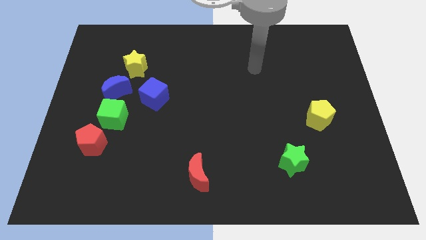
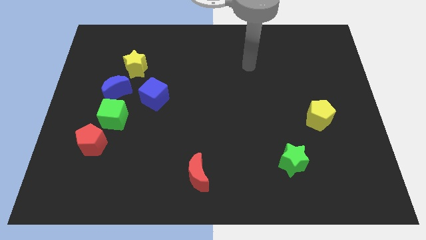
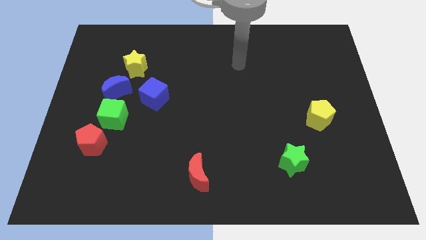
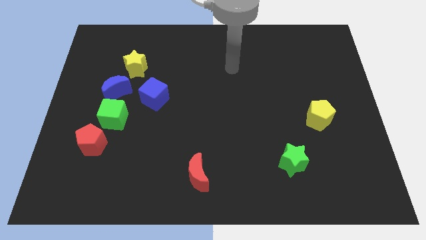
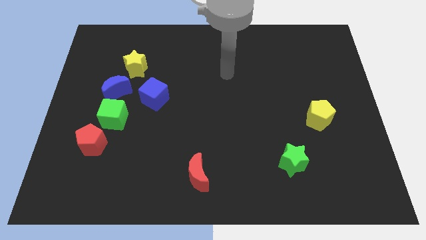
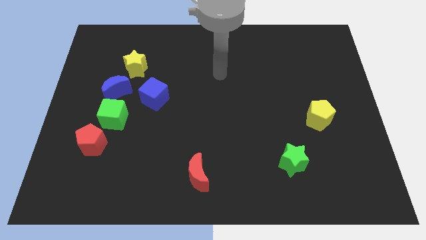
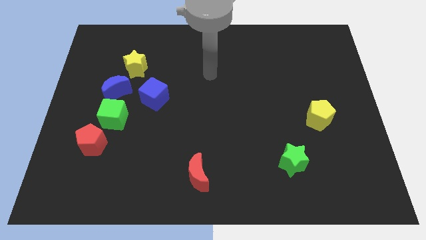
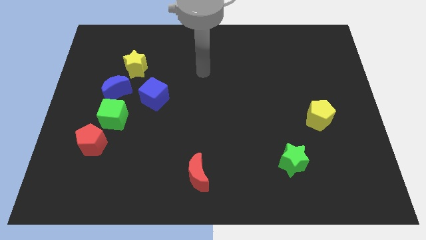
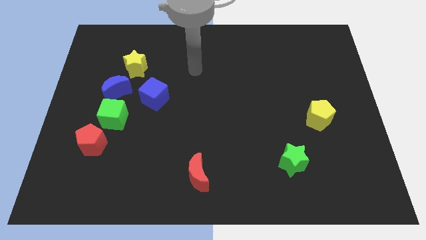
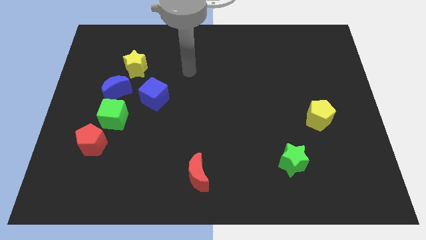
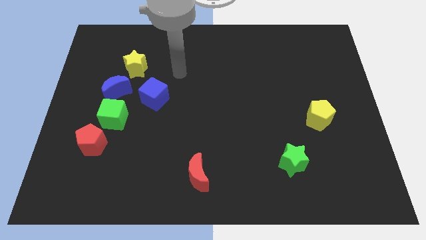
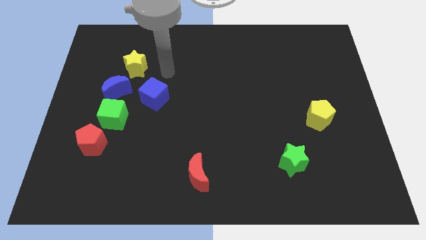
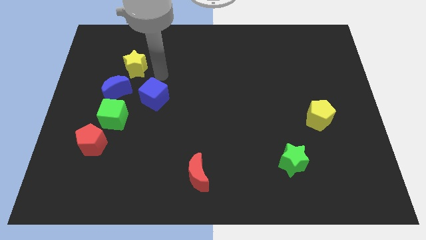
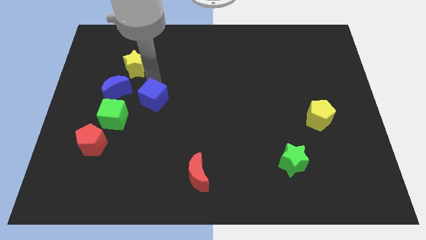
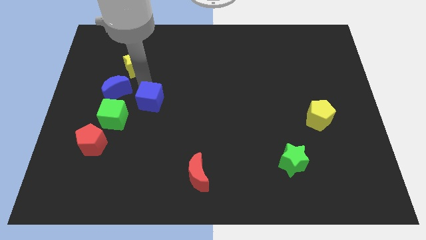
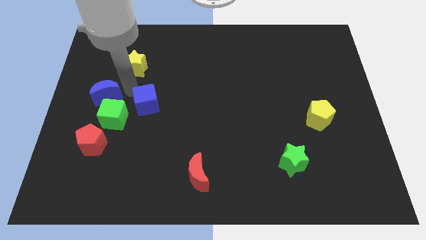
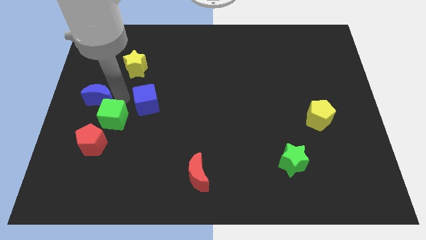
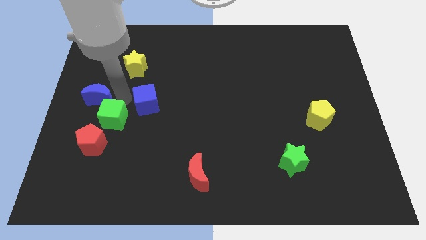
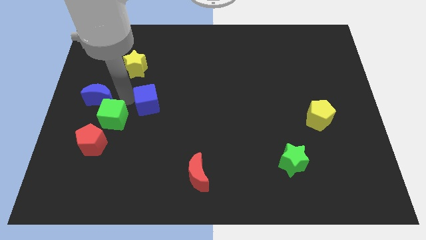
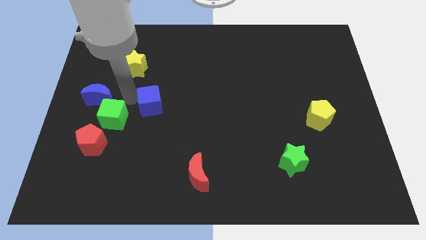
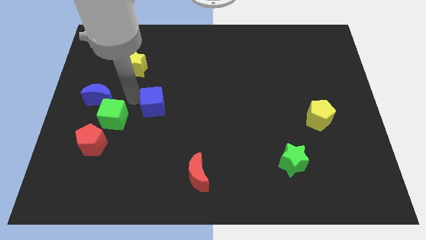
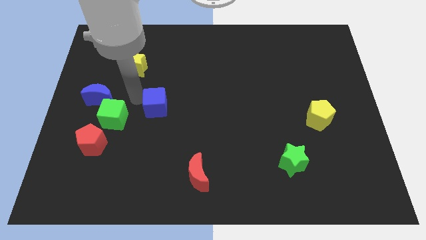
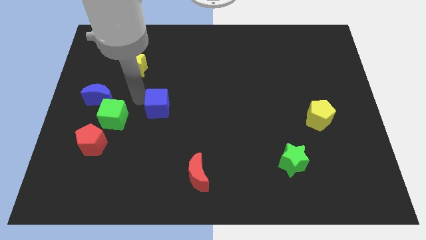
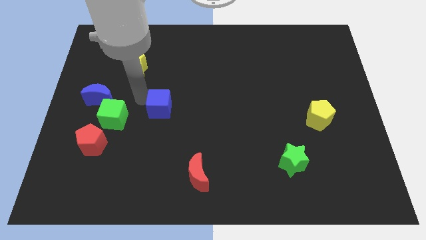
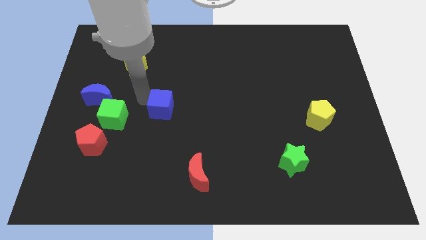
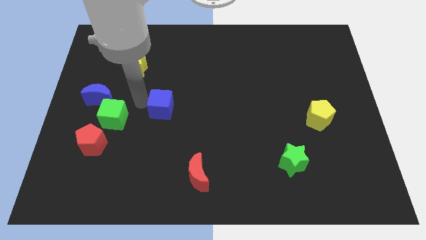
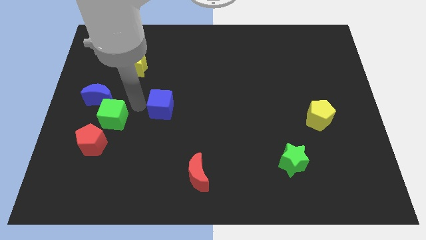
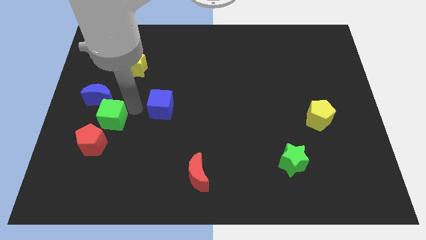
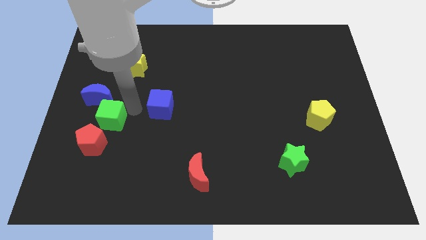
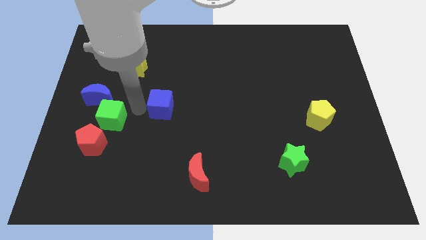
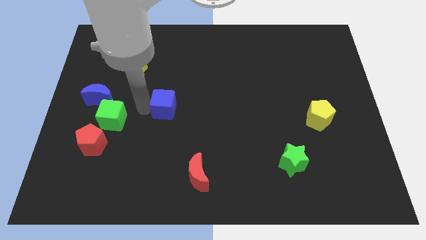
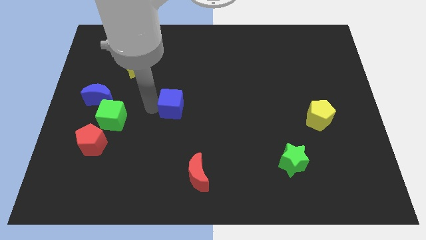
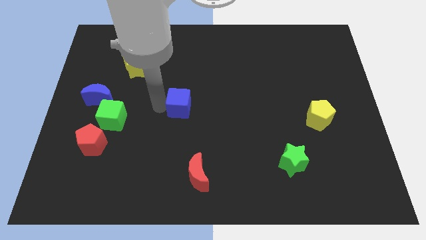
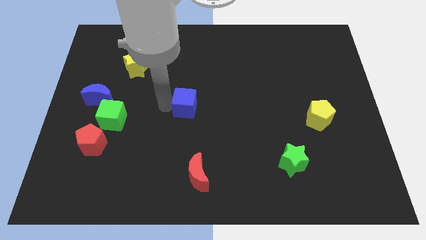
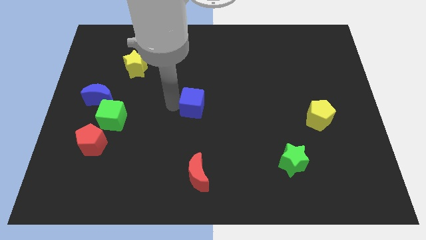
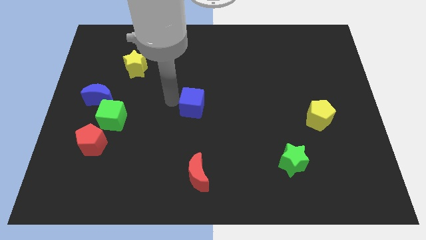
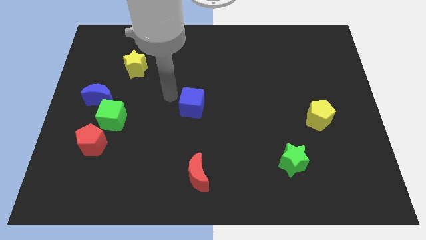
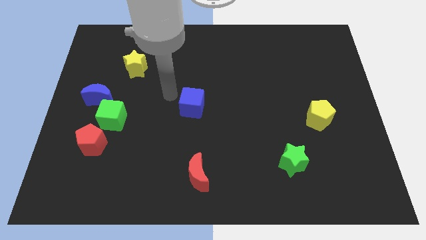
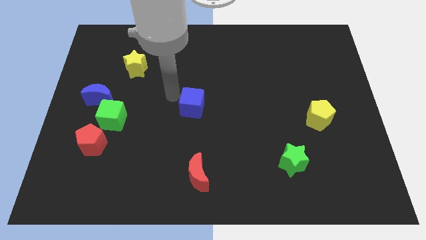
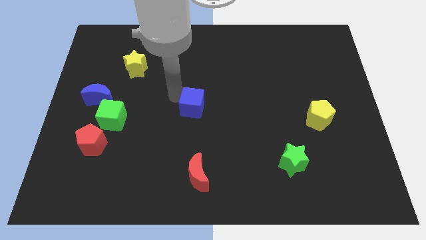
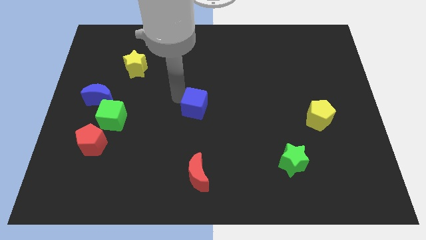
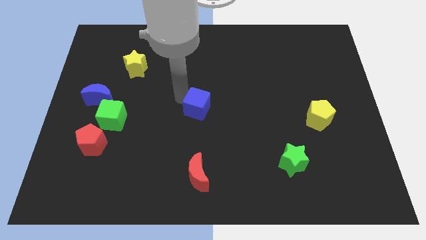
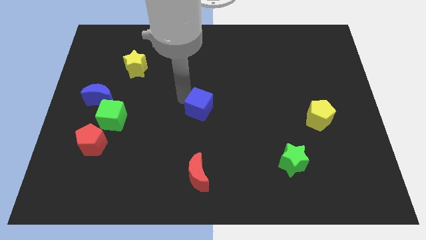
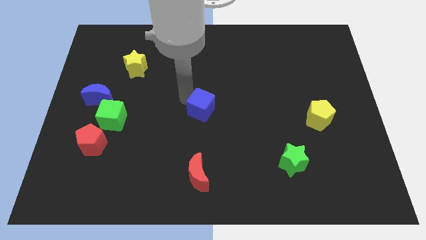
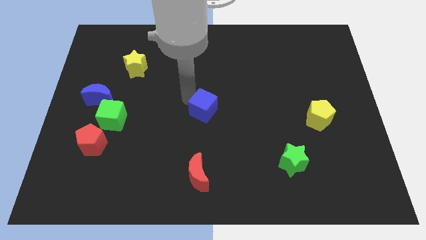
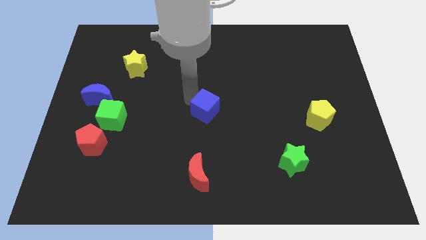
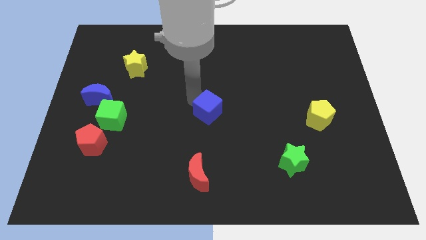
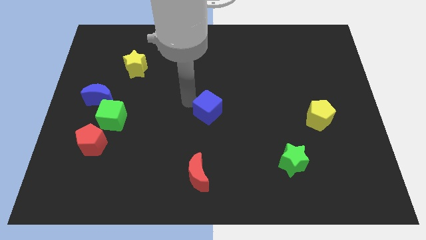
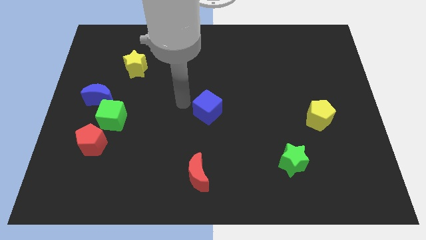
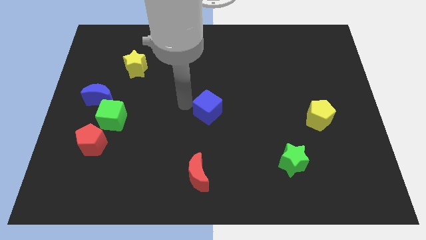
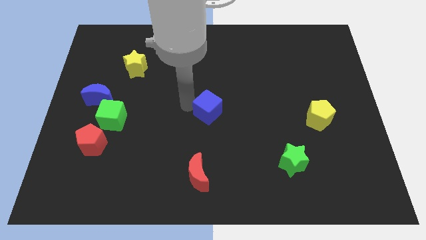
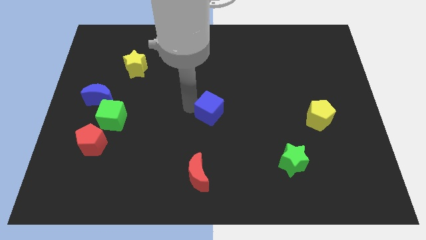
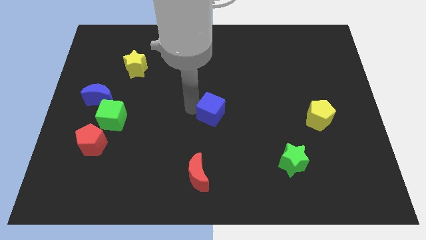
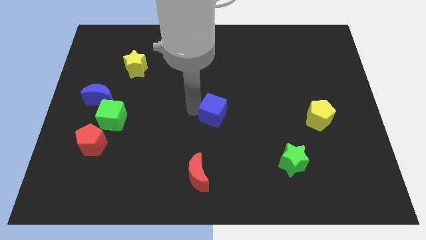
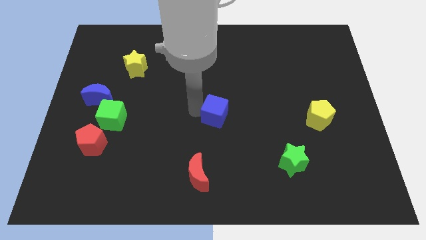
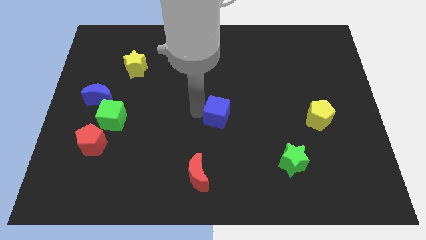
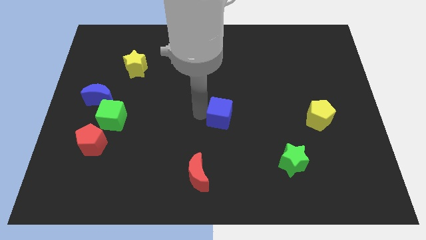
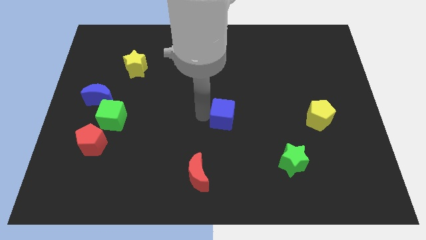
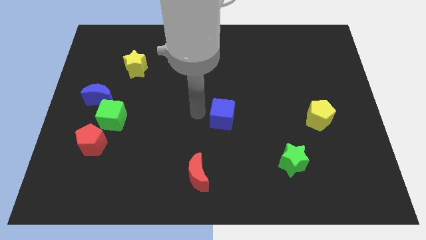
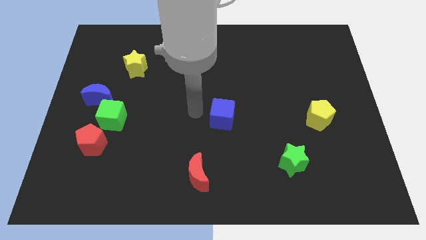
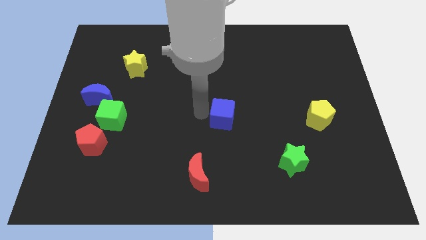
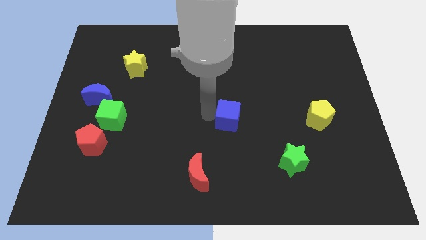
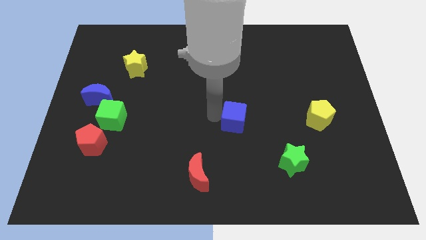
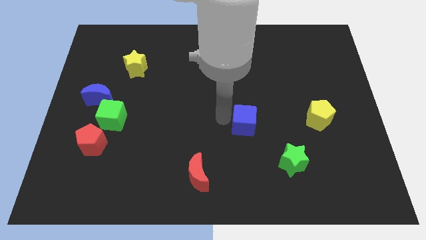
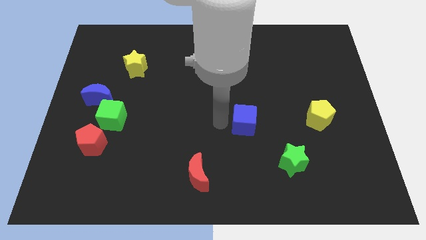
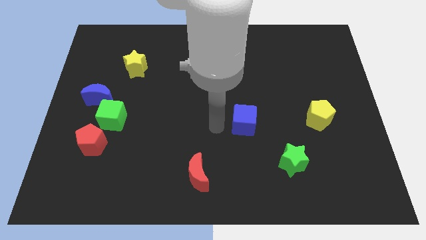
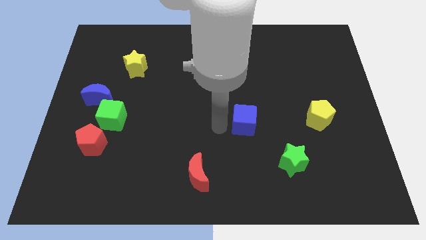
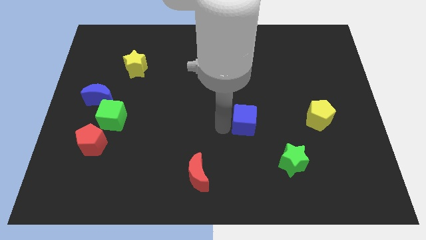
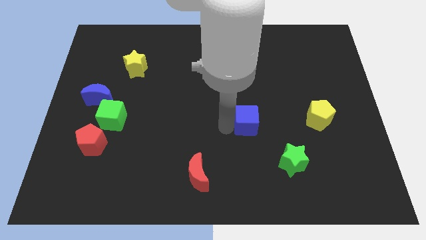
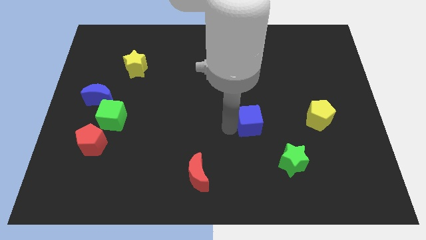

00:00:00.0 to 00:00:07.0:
slide the blue cube left of the yellow pentagon
